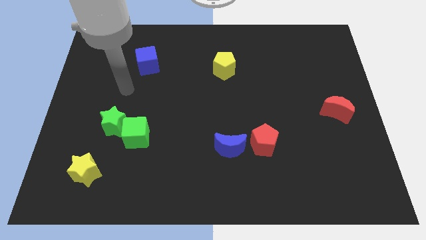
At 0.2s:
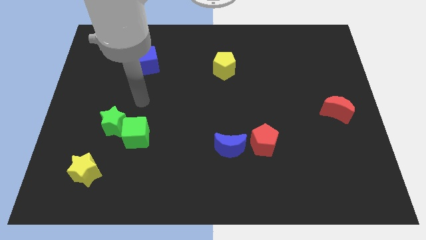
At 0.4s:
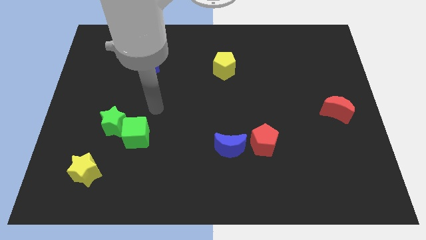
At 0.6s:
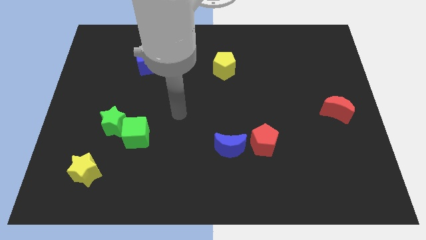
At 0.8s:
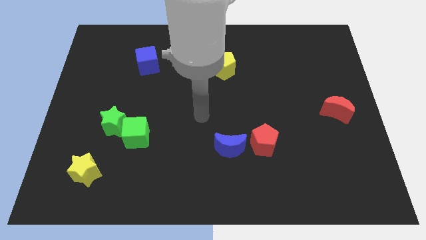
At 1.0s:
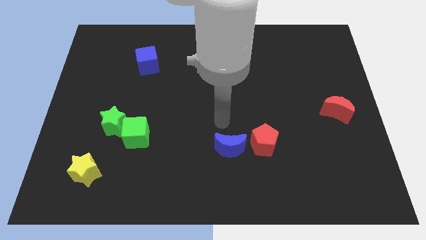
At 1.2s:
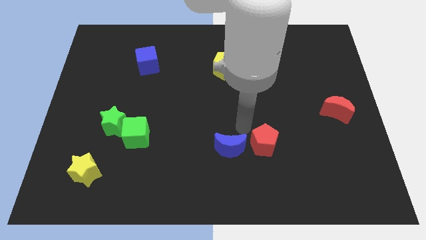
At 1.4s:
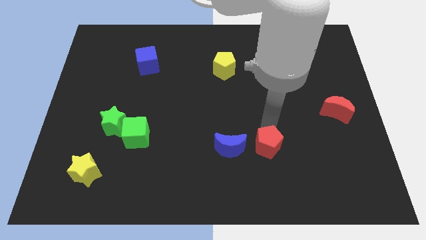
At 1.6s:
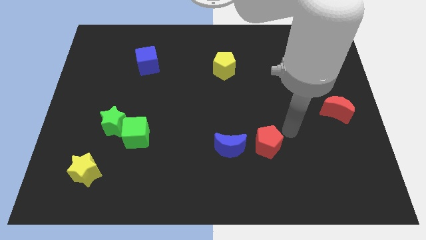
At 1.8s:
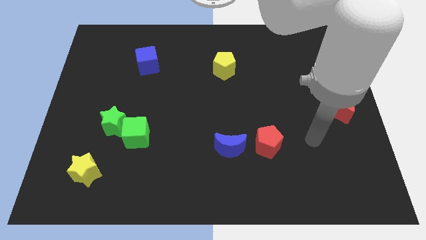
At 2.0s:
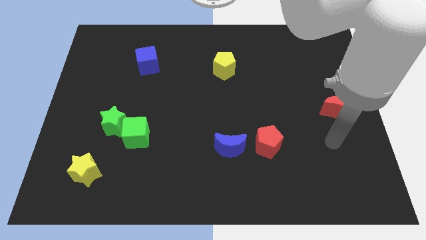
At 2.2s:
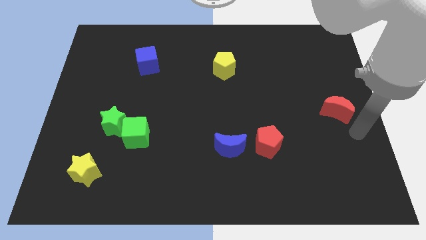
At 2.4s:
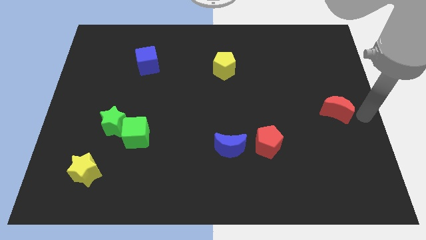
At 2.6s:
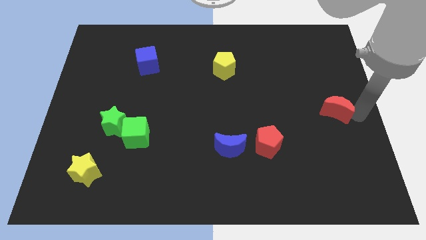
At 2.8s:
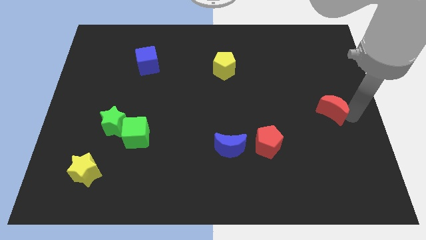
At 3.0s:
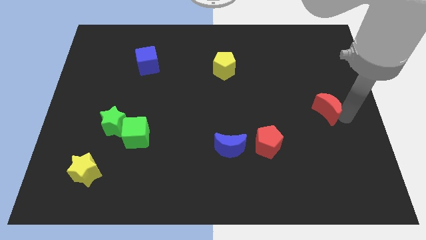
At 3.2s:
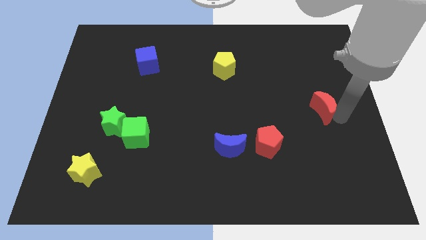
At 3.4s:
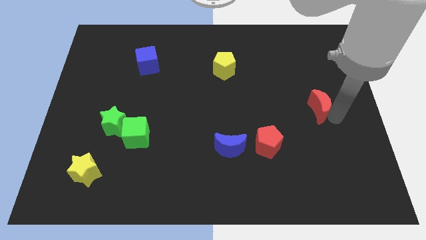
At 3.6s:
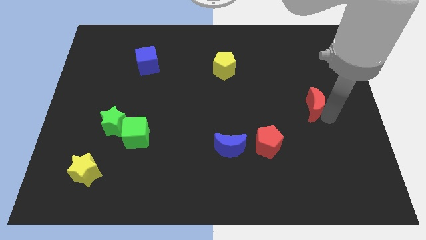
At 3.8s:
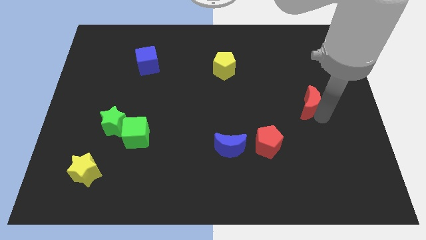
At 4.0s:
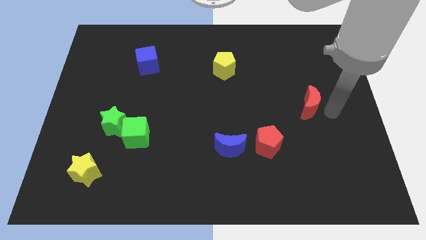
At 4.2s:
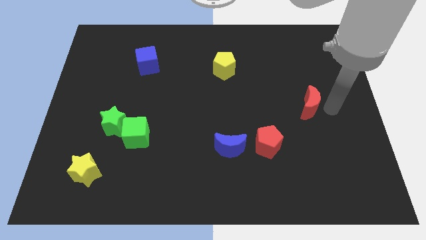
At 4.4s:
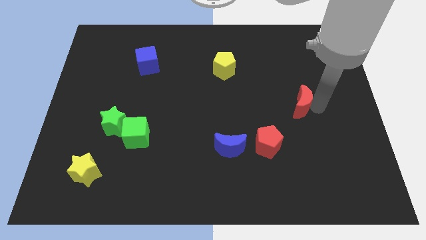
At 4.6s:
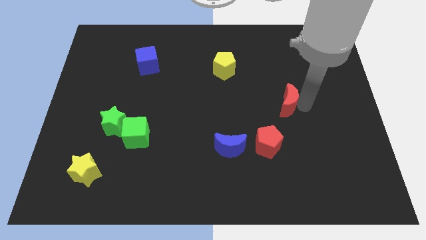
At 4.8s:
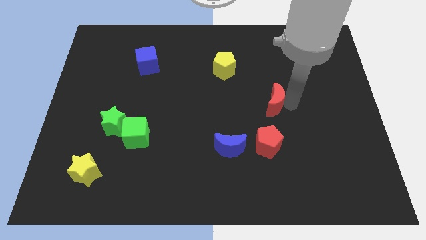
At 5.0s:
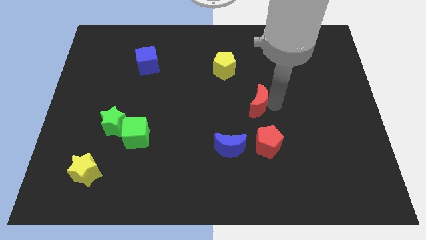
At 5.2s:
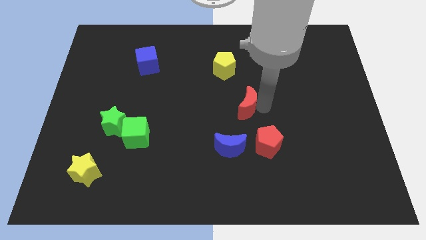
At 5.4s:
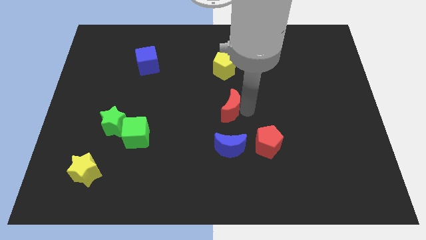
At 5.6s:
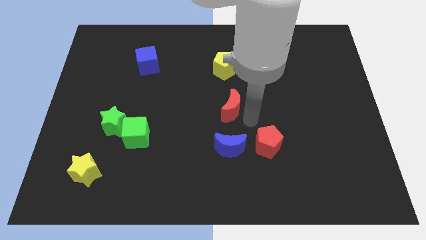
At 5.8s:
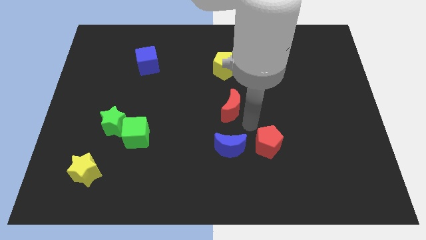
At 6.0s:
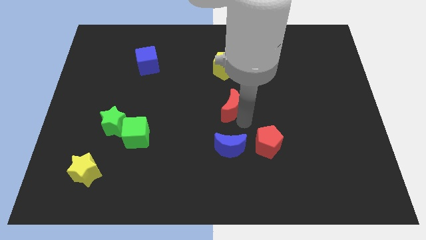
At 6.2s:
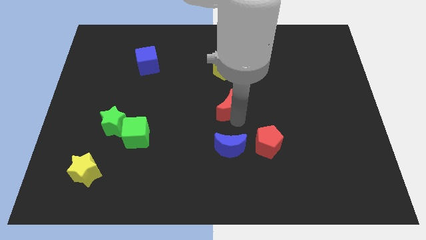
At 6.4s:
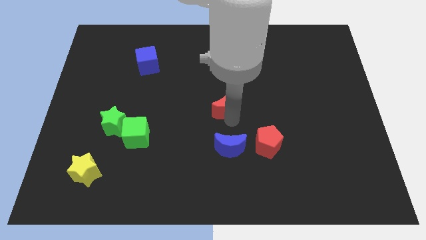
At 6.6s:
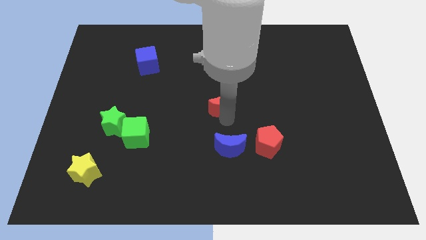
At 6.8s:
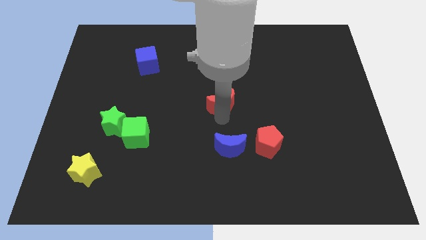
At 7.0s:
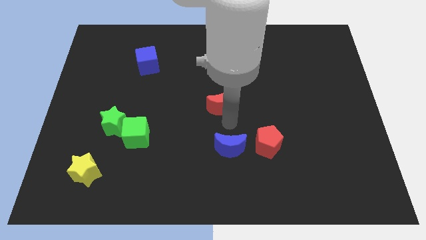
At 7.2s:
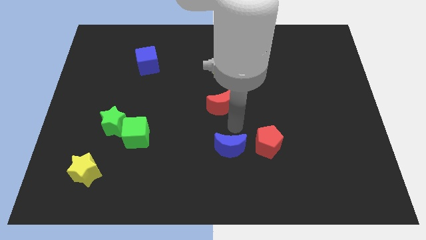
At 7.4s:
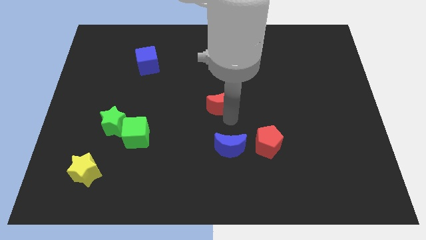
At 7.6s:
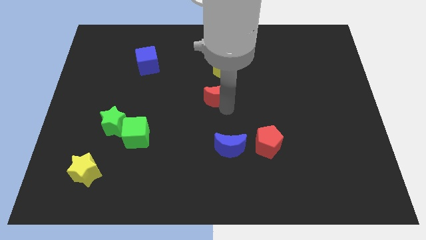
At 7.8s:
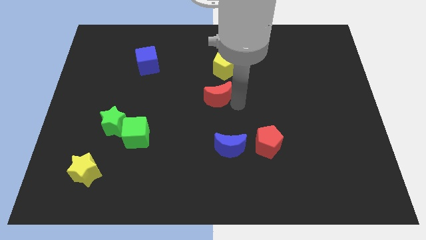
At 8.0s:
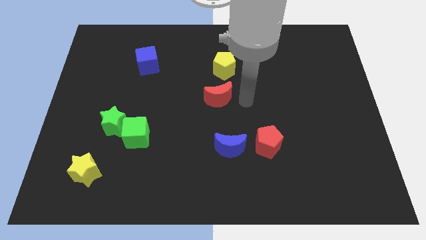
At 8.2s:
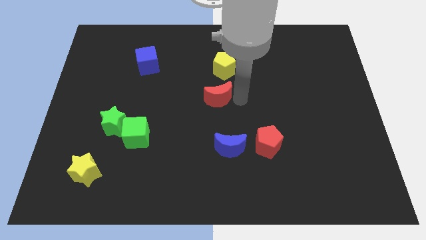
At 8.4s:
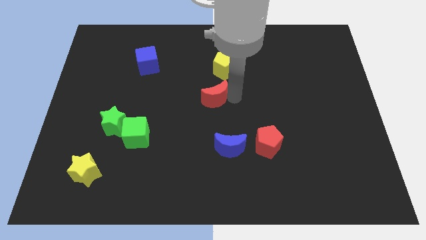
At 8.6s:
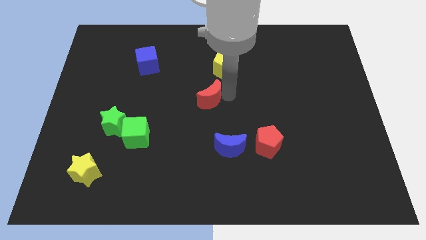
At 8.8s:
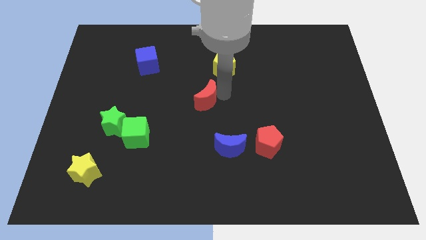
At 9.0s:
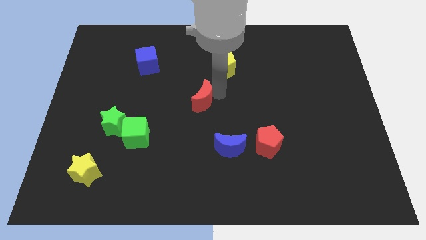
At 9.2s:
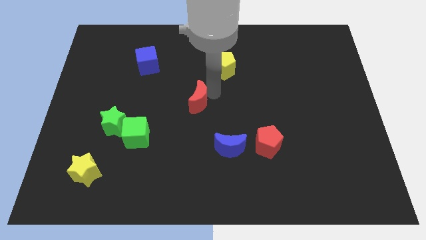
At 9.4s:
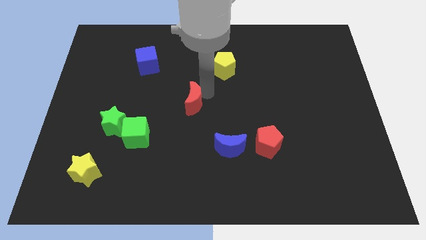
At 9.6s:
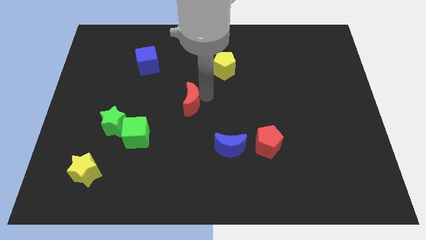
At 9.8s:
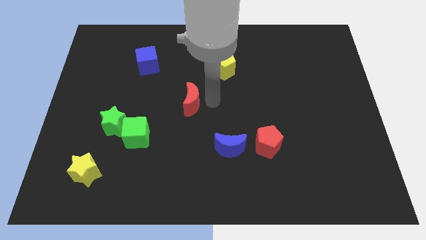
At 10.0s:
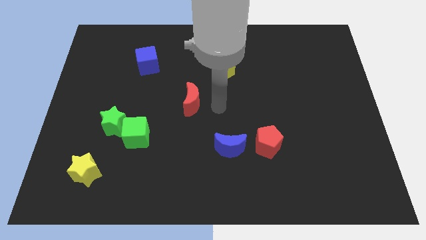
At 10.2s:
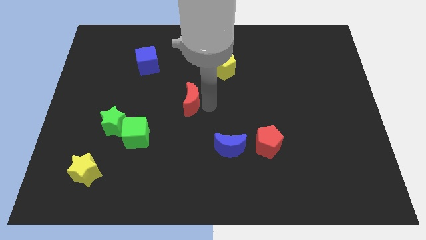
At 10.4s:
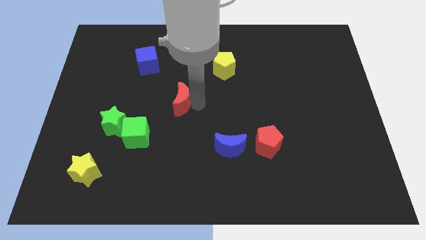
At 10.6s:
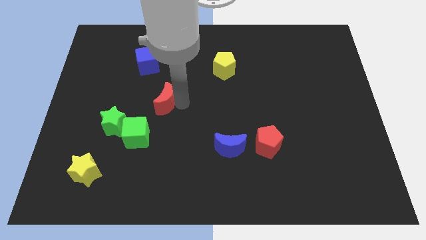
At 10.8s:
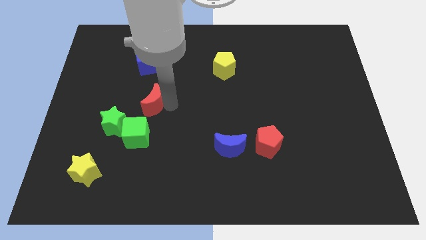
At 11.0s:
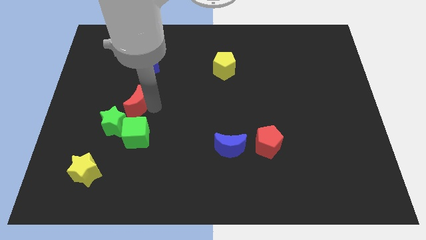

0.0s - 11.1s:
push the red moon to the top of the green star

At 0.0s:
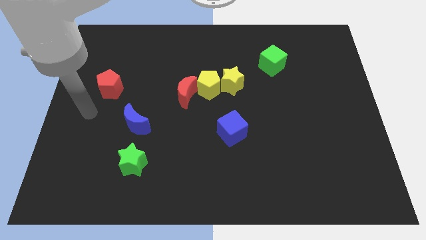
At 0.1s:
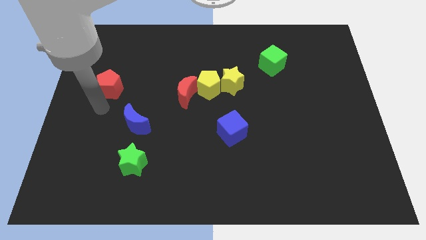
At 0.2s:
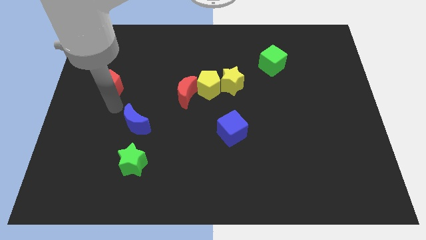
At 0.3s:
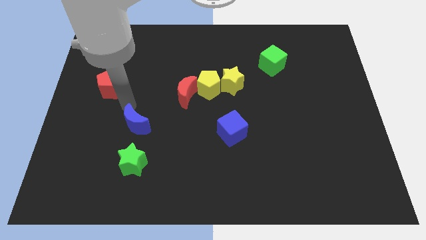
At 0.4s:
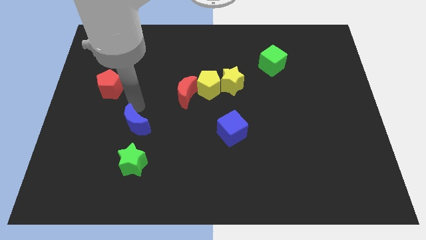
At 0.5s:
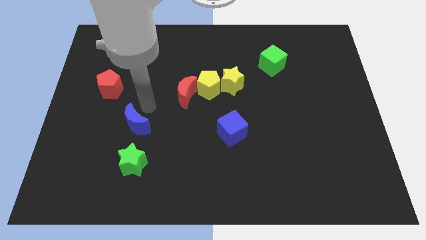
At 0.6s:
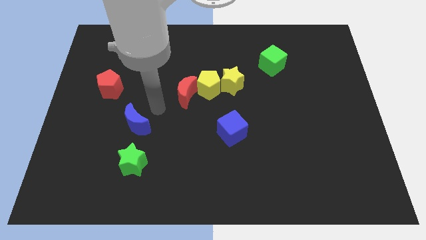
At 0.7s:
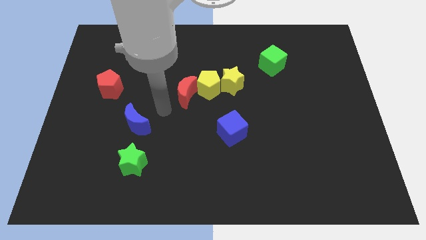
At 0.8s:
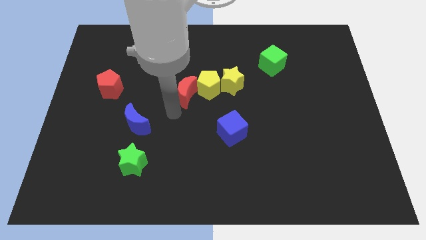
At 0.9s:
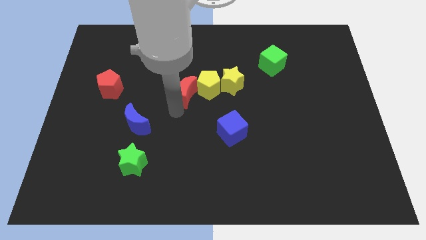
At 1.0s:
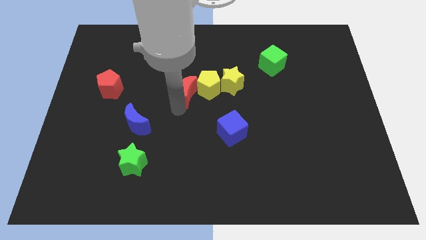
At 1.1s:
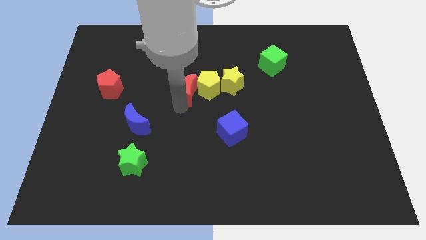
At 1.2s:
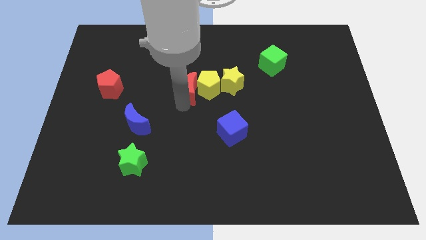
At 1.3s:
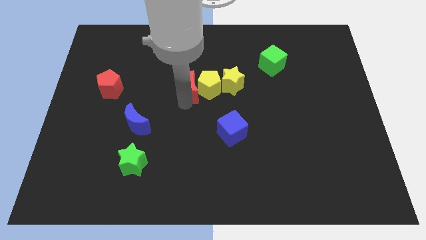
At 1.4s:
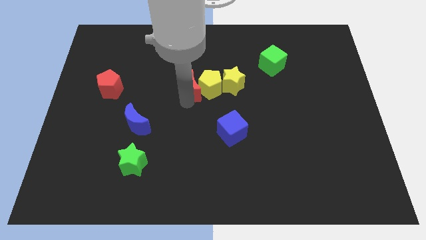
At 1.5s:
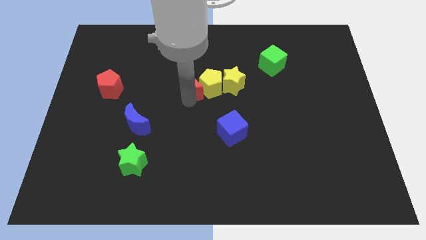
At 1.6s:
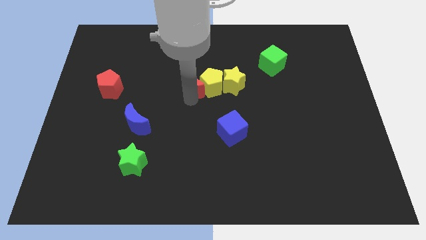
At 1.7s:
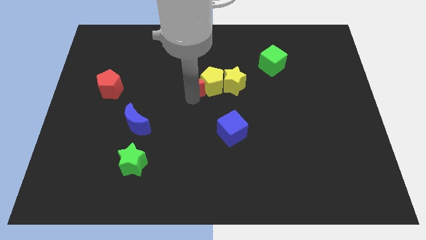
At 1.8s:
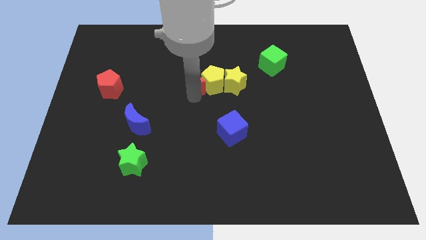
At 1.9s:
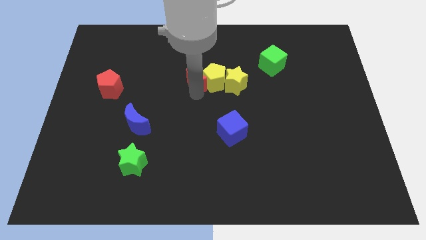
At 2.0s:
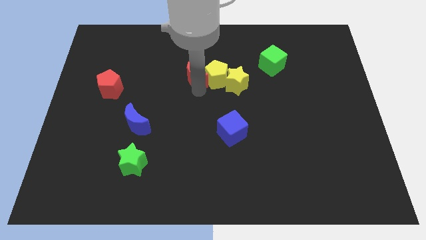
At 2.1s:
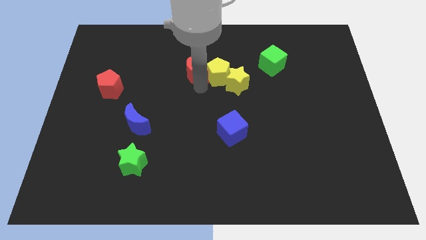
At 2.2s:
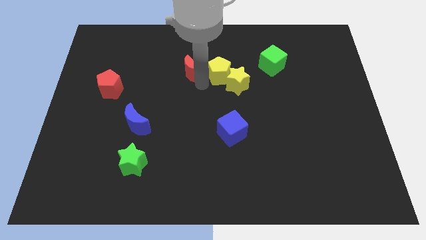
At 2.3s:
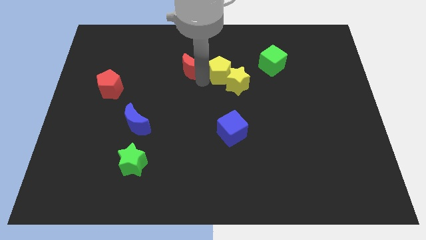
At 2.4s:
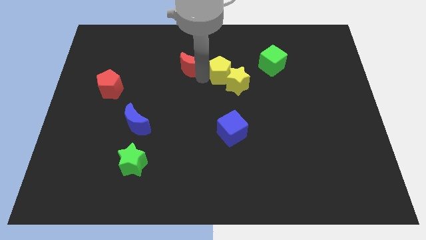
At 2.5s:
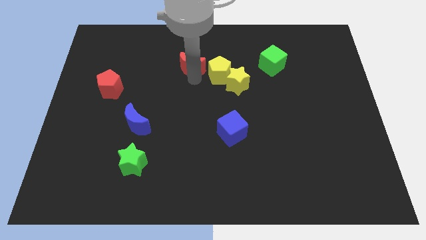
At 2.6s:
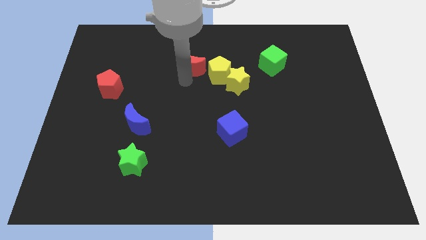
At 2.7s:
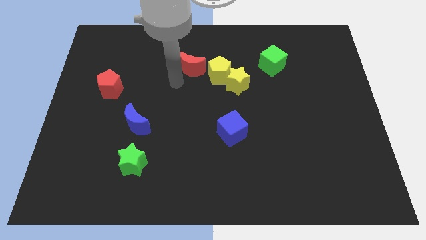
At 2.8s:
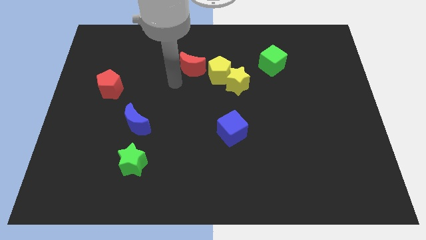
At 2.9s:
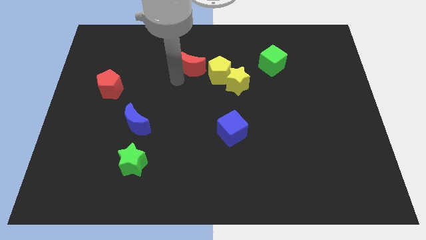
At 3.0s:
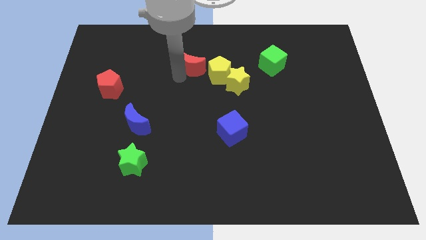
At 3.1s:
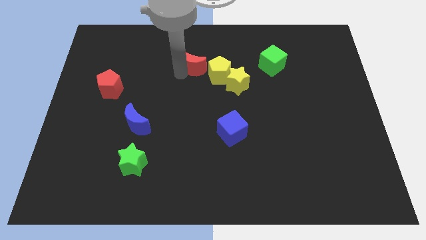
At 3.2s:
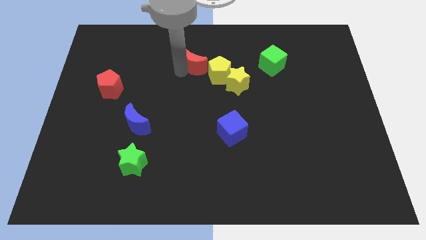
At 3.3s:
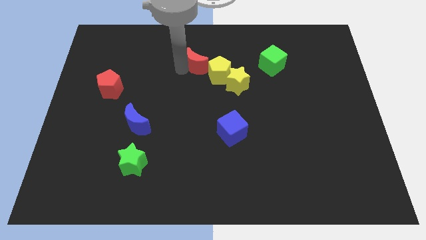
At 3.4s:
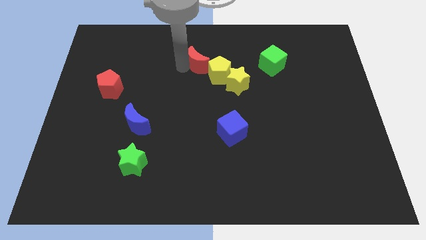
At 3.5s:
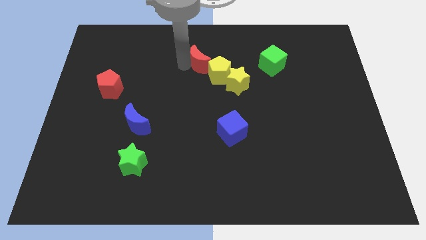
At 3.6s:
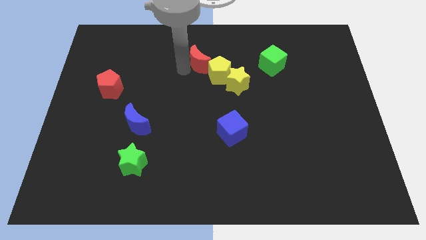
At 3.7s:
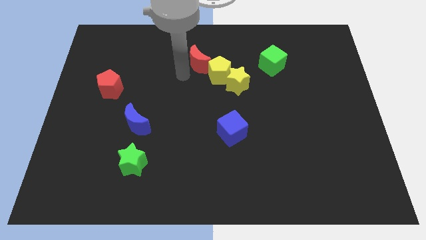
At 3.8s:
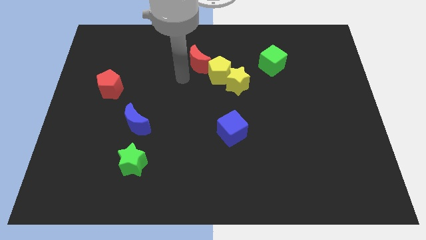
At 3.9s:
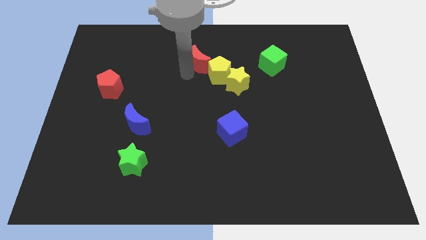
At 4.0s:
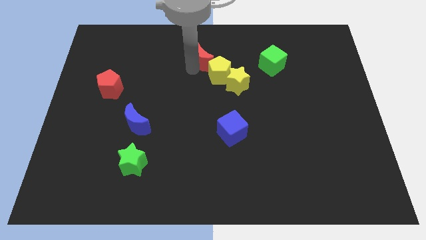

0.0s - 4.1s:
slide the red moon to the top of the yellow pentagon
